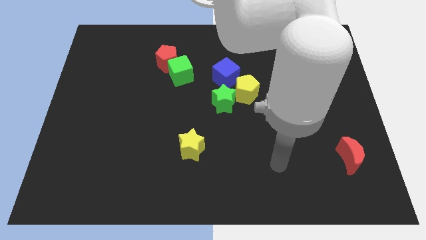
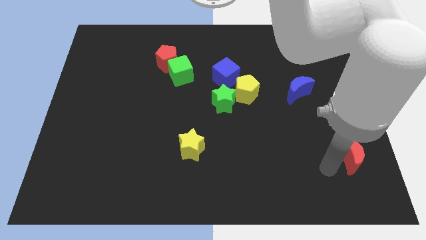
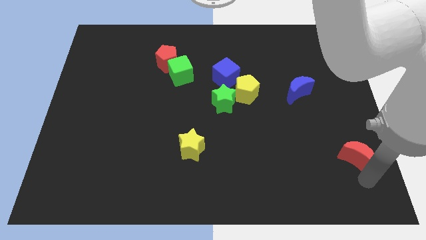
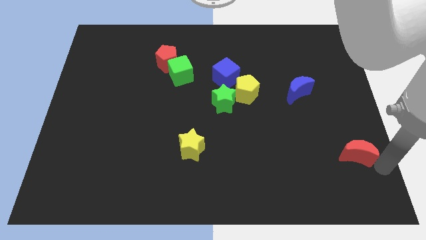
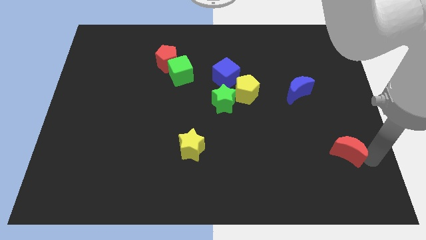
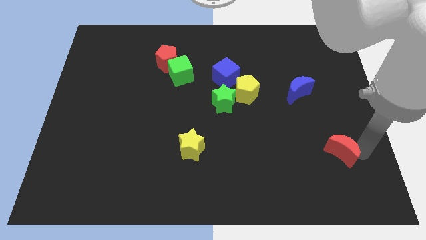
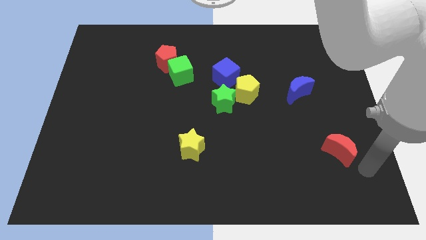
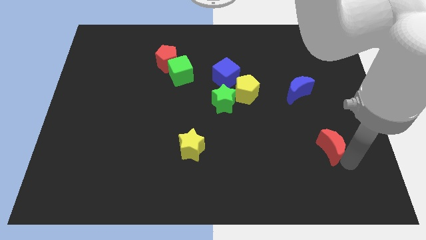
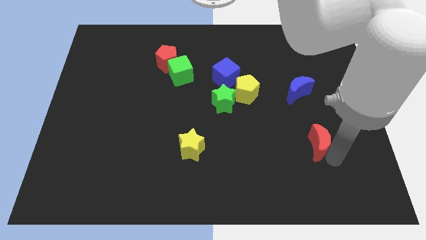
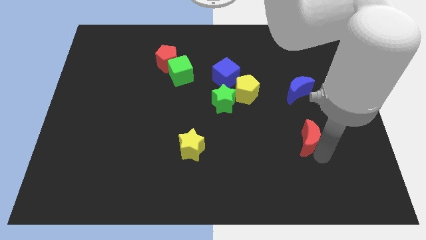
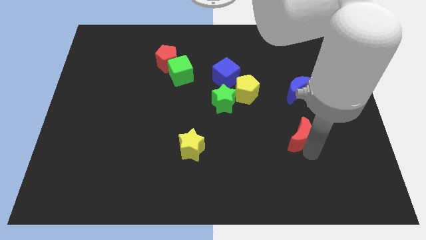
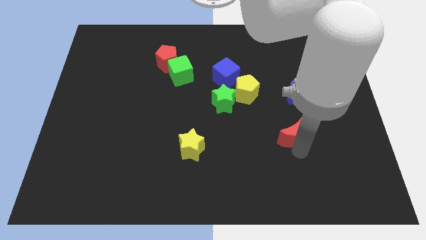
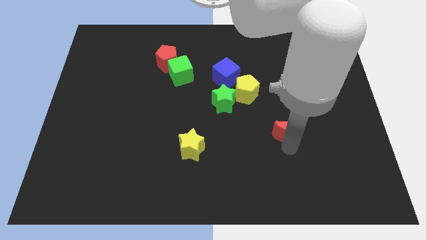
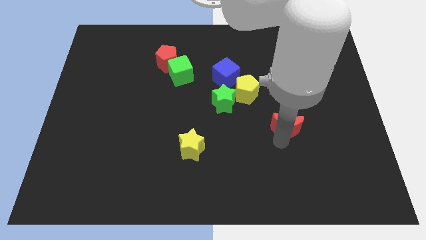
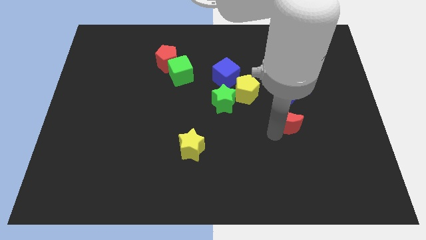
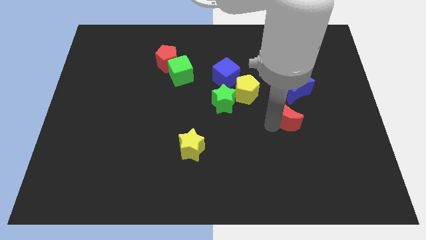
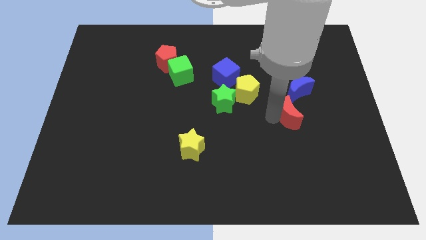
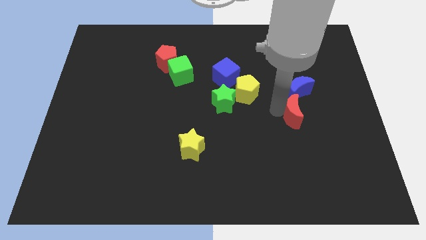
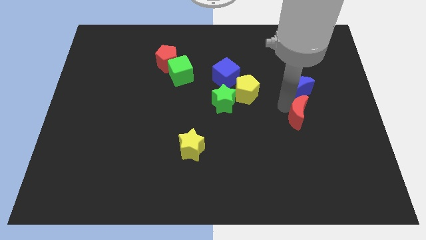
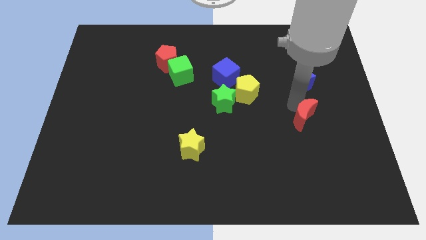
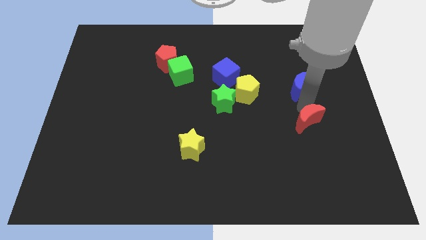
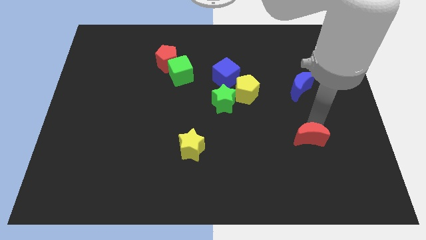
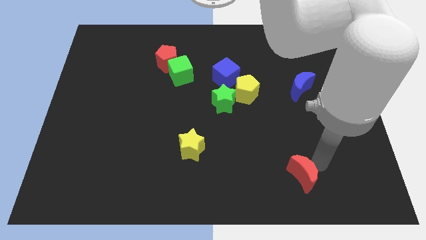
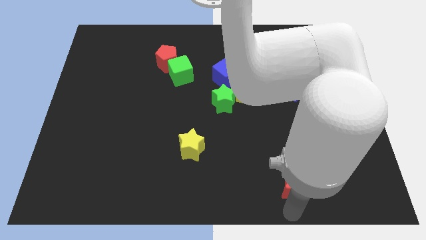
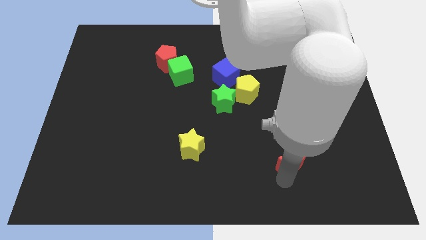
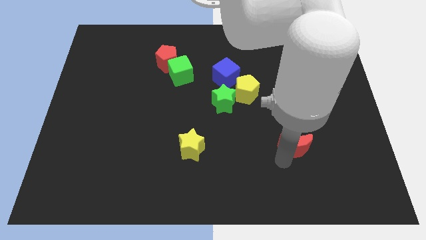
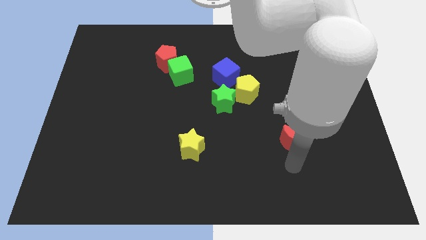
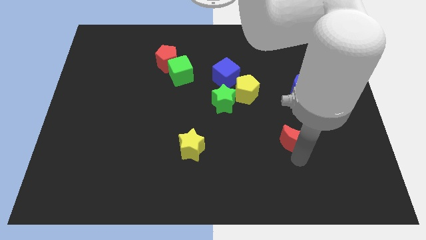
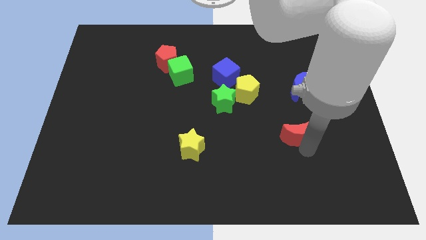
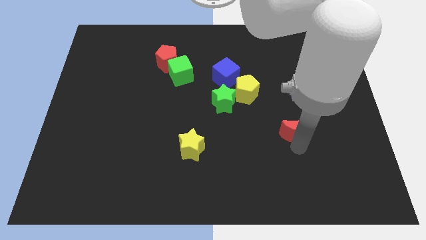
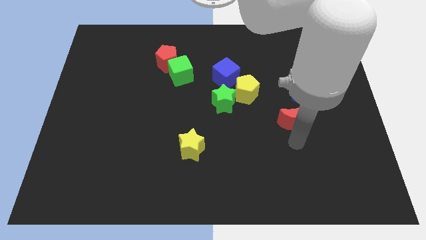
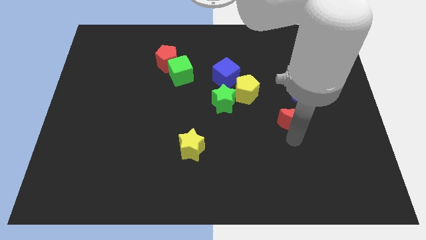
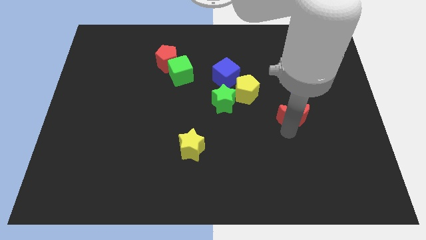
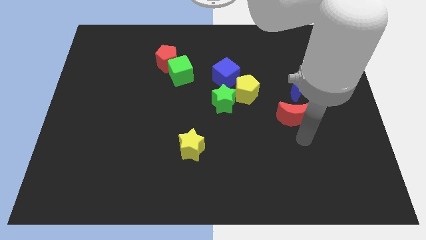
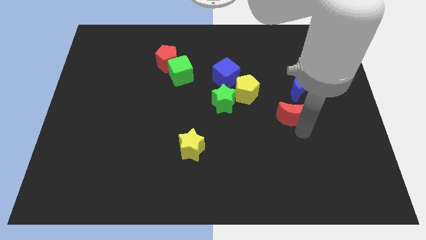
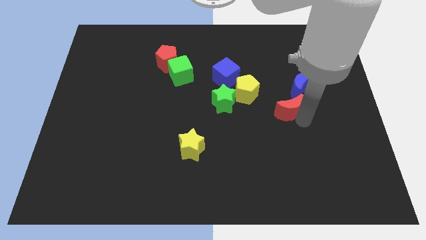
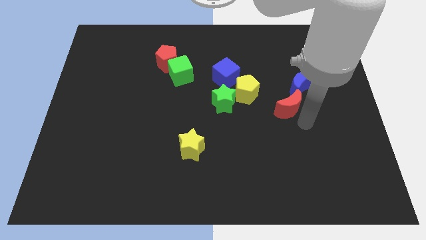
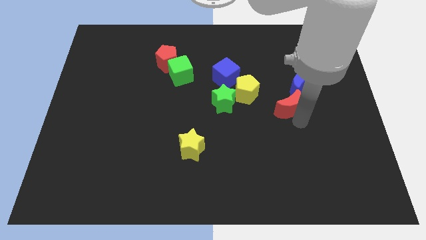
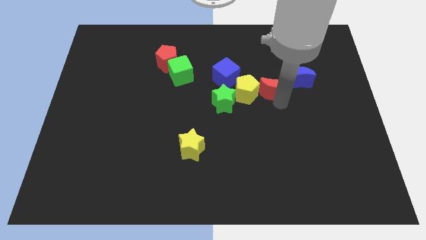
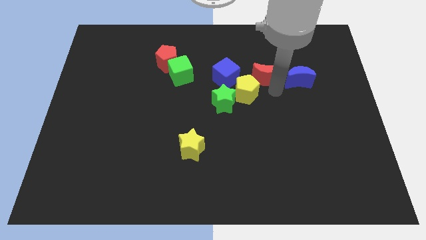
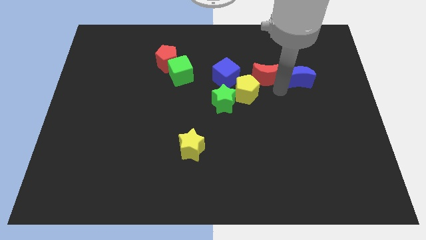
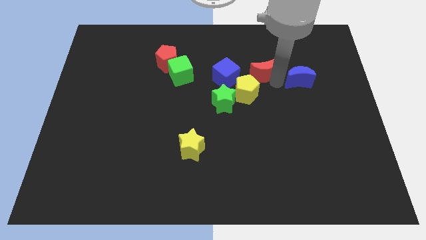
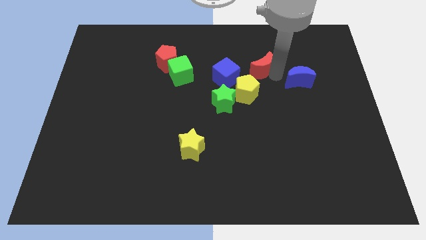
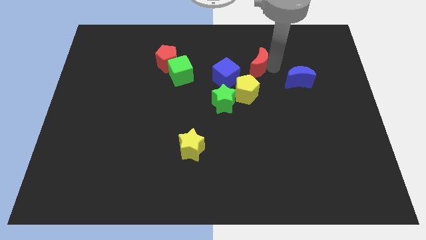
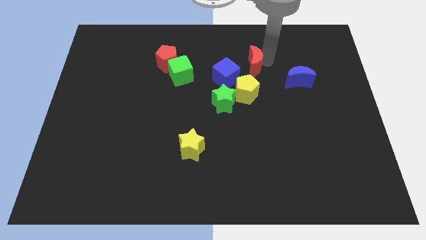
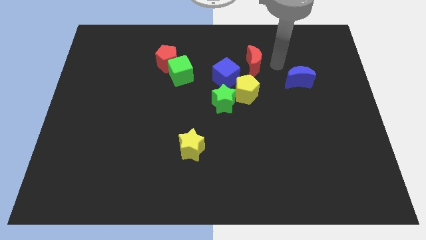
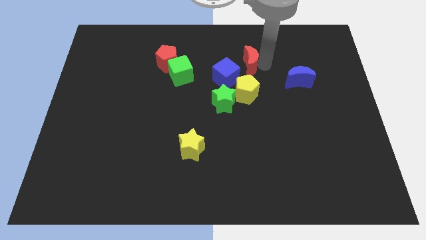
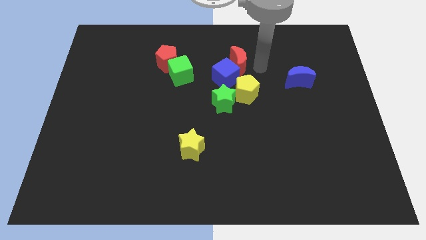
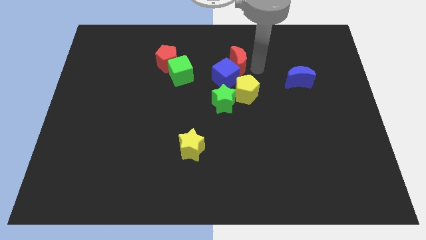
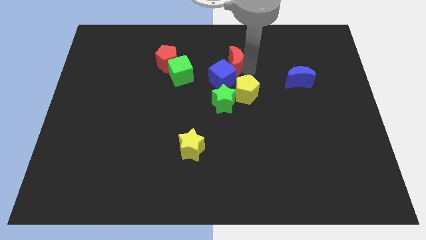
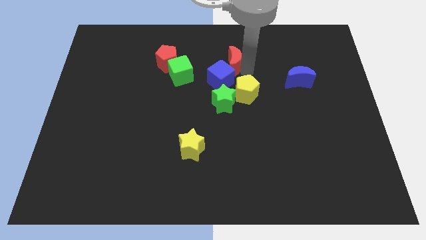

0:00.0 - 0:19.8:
push the red moon to the top left of the yellow pentagon

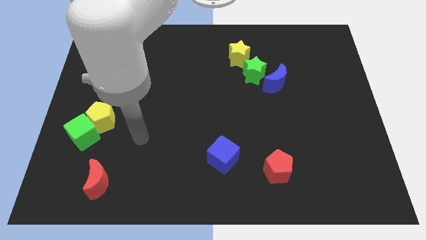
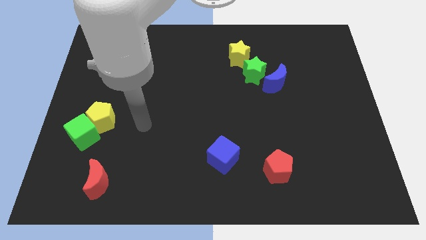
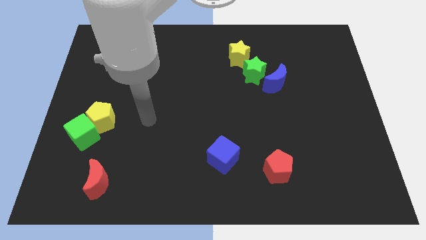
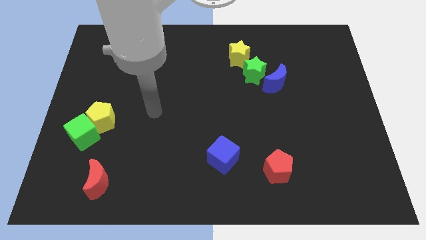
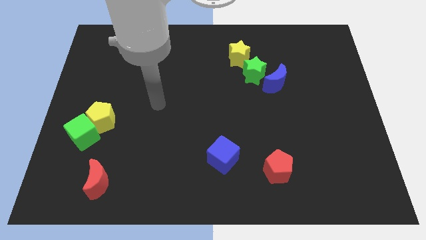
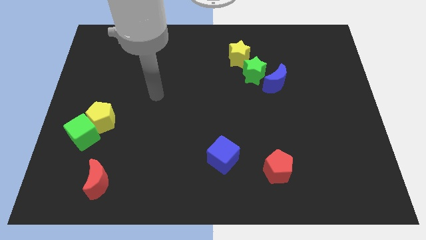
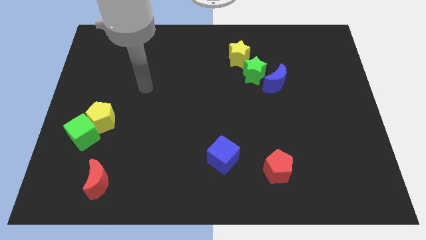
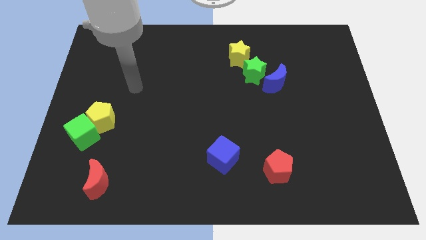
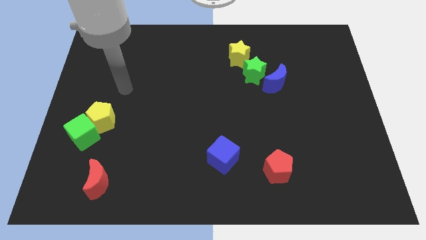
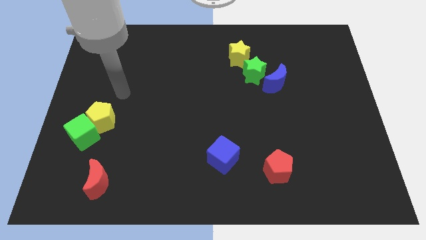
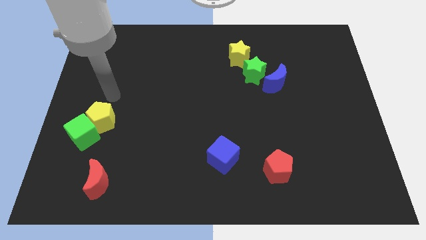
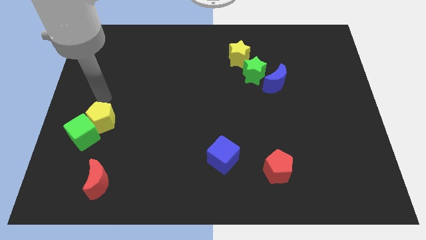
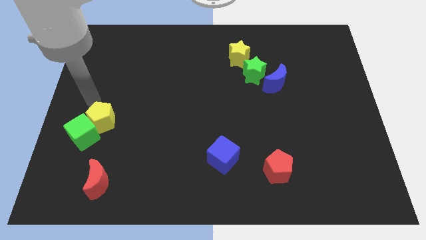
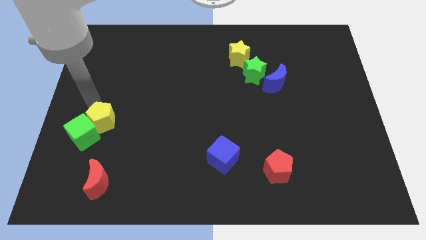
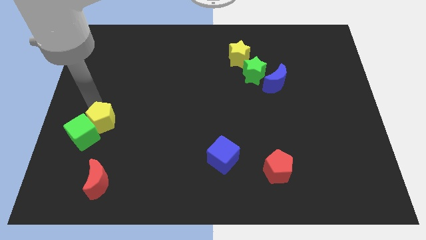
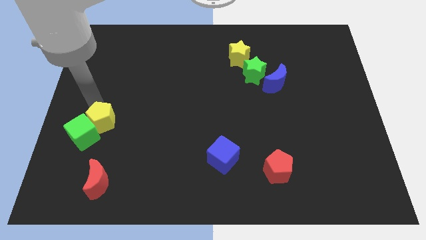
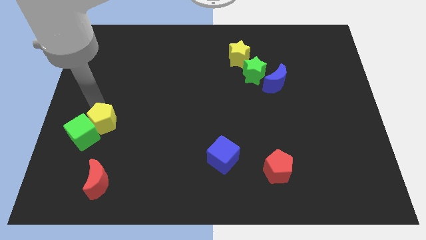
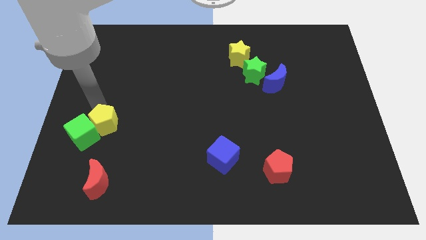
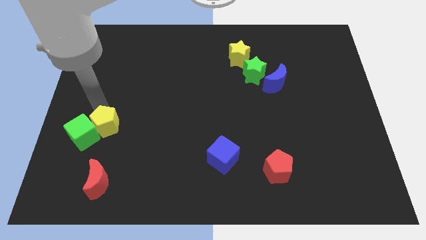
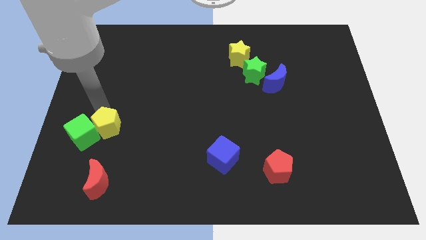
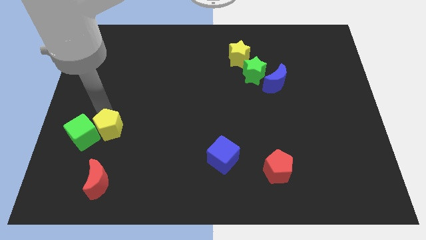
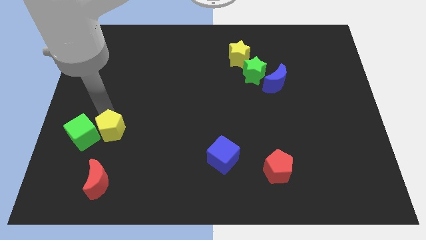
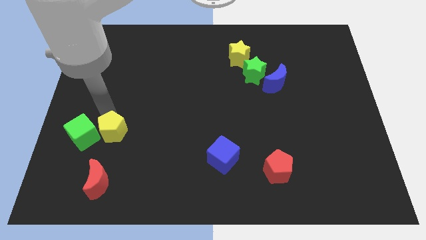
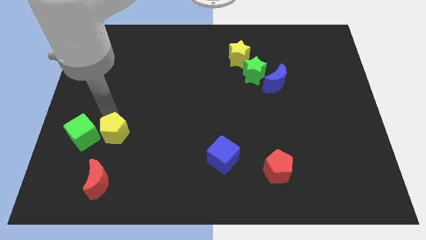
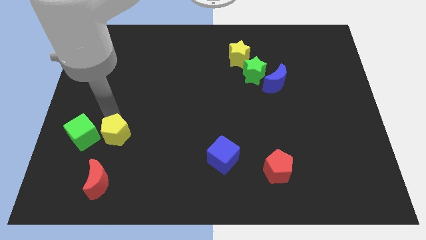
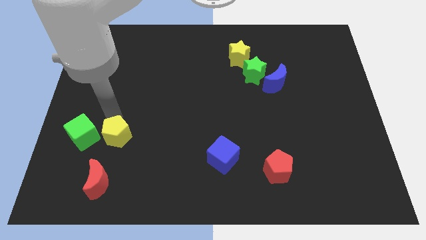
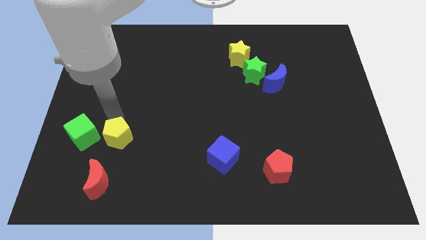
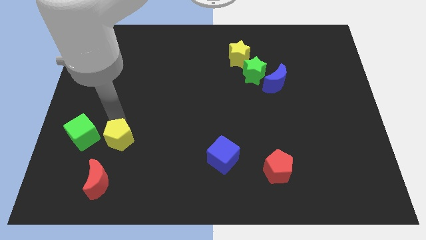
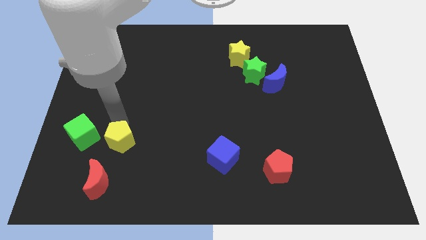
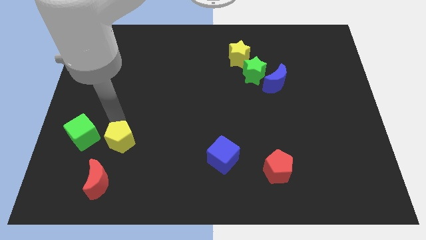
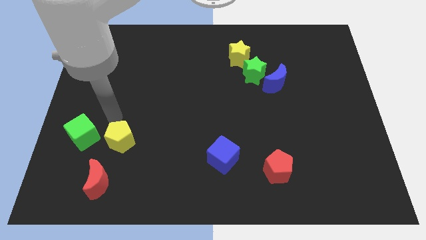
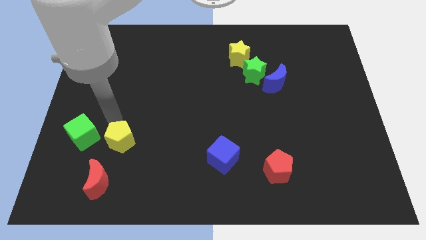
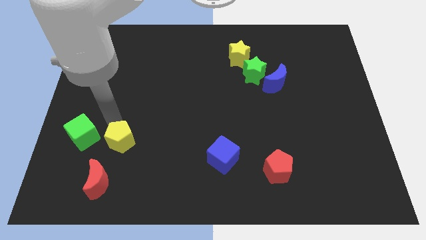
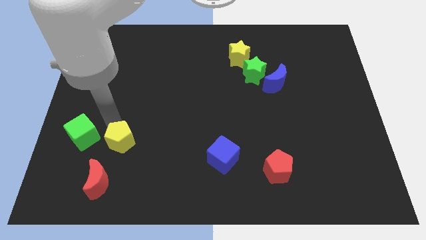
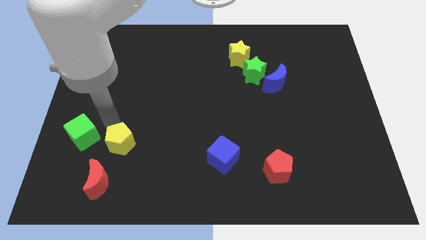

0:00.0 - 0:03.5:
slide the yellow pentagon to the top right side of the red moon
